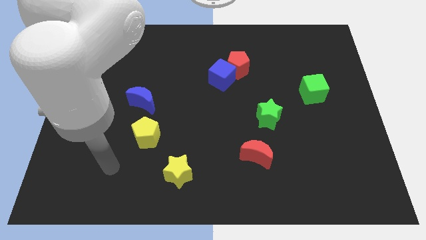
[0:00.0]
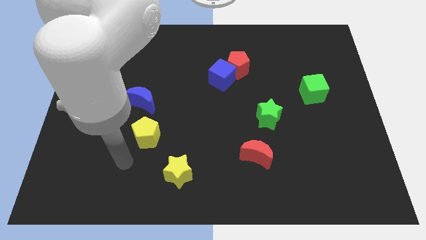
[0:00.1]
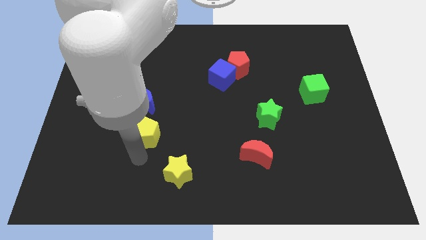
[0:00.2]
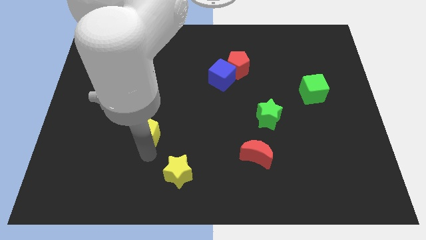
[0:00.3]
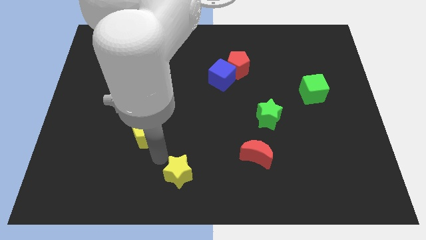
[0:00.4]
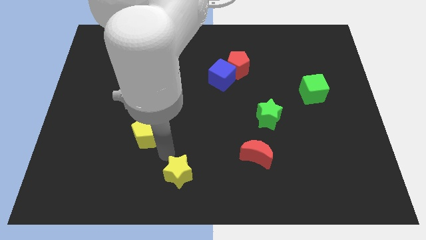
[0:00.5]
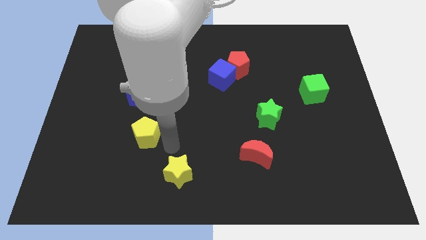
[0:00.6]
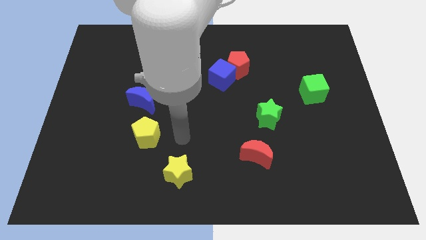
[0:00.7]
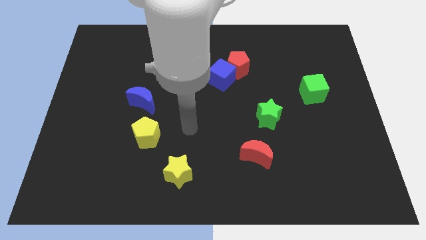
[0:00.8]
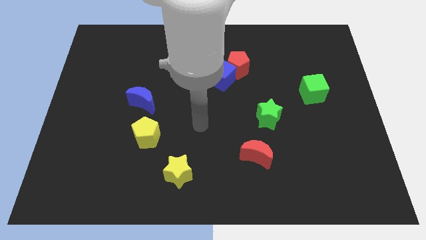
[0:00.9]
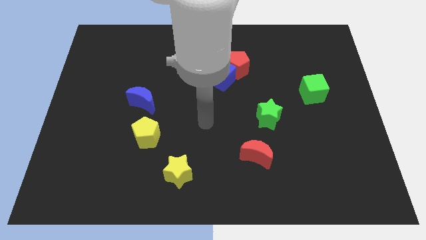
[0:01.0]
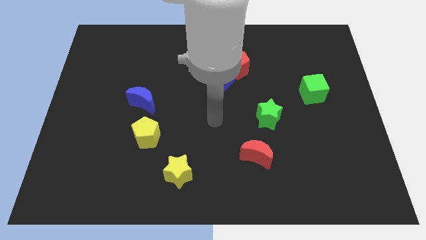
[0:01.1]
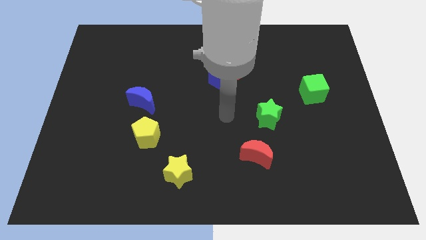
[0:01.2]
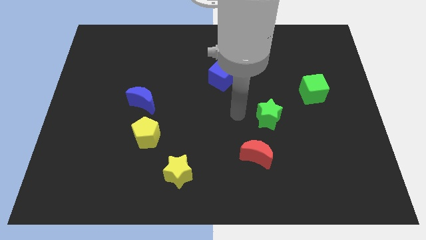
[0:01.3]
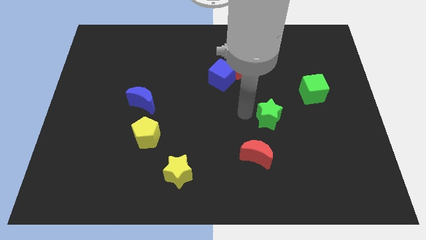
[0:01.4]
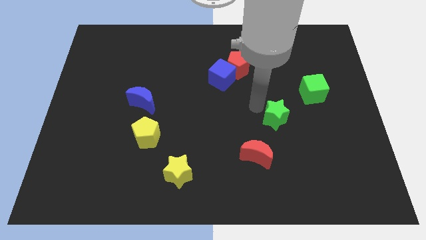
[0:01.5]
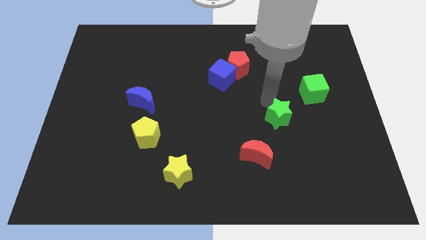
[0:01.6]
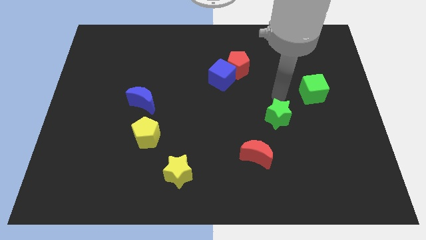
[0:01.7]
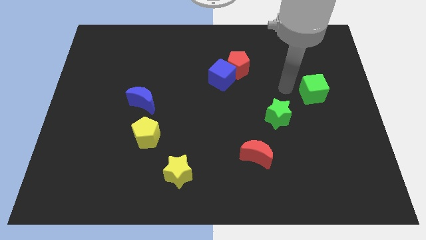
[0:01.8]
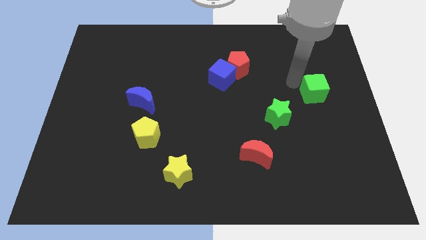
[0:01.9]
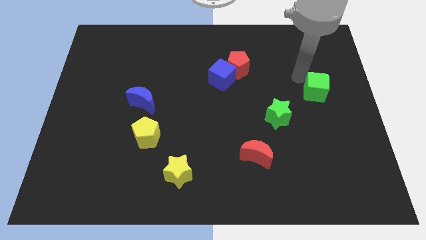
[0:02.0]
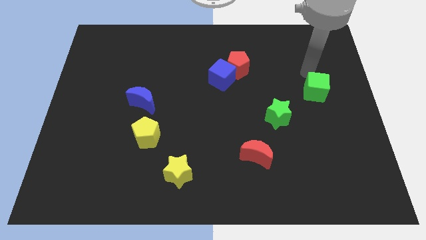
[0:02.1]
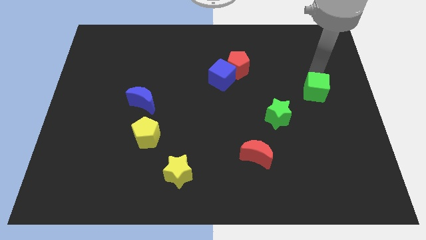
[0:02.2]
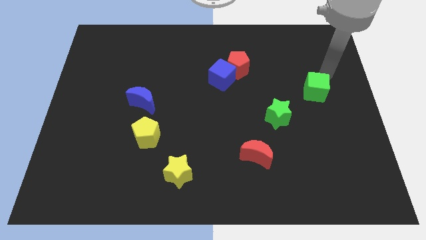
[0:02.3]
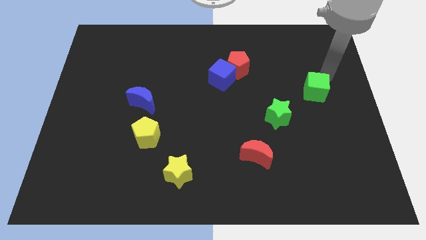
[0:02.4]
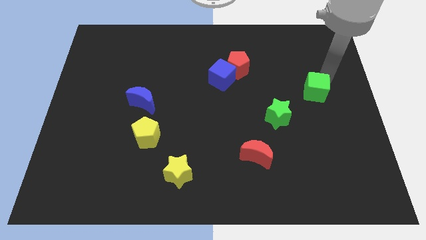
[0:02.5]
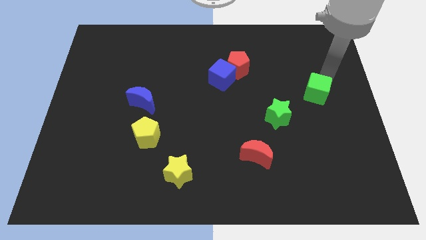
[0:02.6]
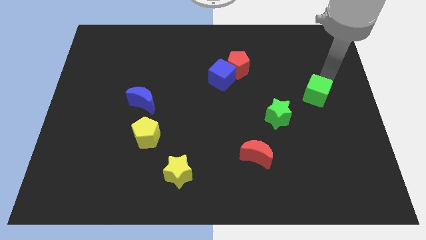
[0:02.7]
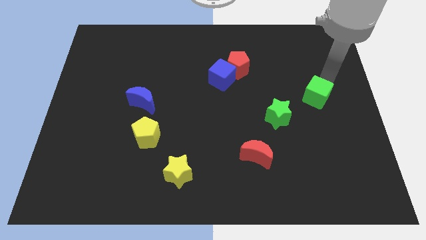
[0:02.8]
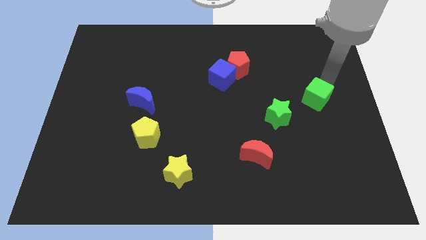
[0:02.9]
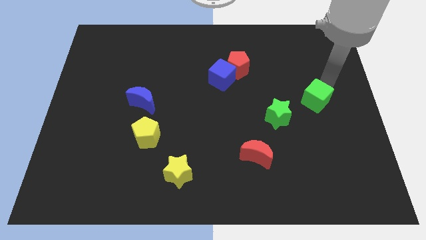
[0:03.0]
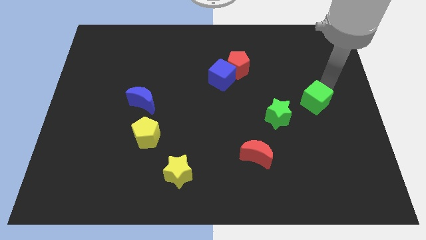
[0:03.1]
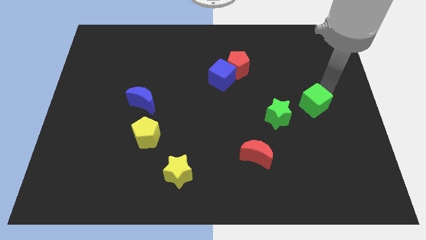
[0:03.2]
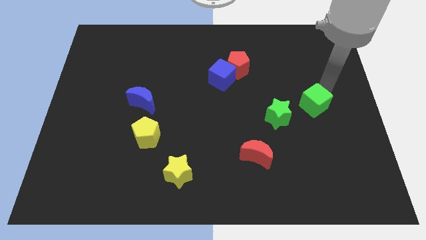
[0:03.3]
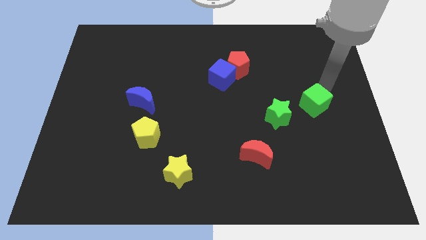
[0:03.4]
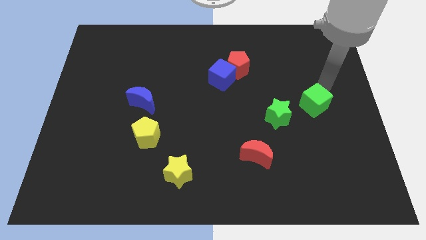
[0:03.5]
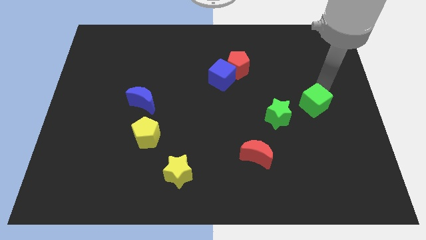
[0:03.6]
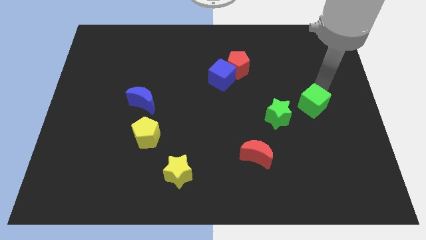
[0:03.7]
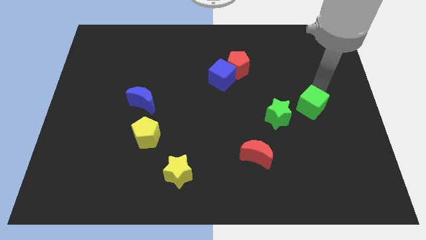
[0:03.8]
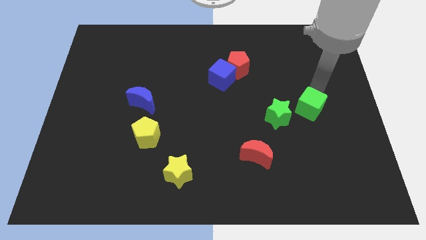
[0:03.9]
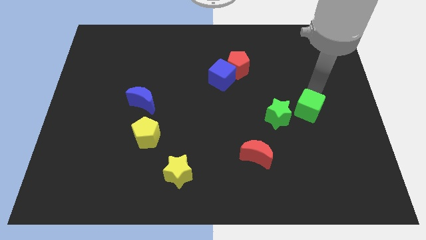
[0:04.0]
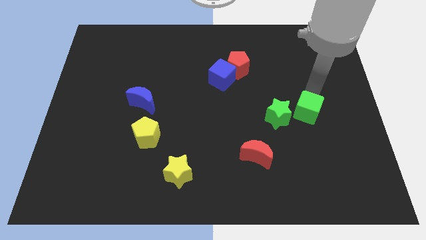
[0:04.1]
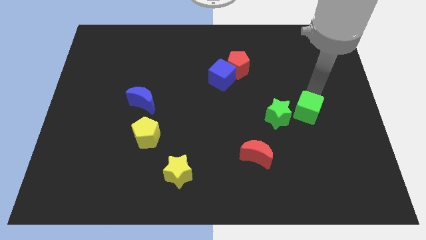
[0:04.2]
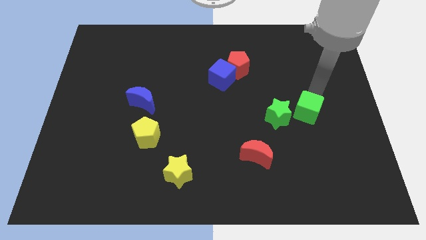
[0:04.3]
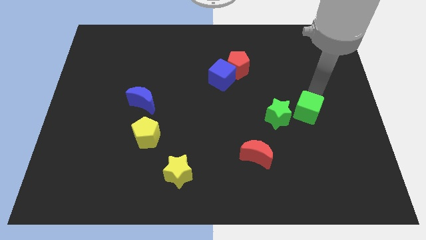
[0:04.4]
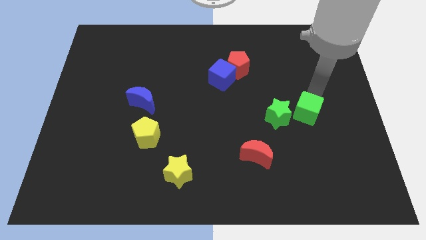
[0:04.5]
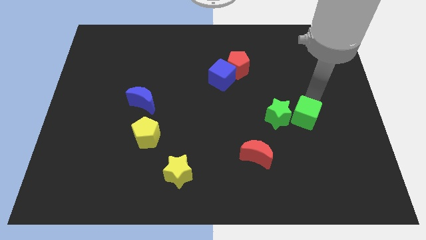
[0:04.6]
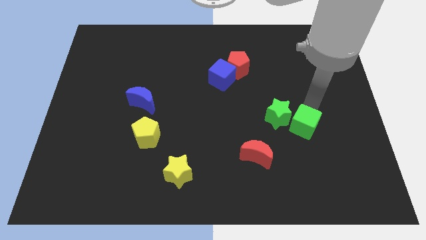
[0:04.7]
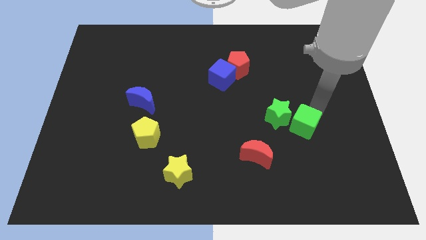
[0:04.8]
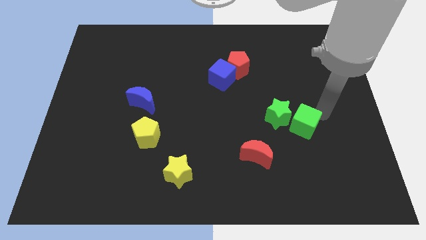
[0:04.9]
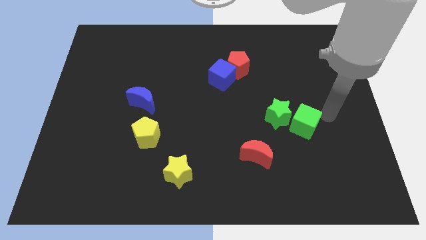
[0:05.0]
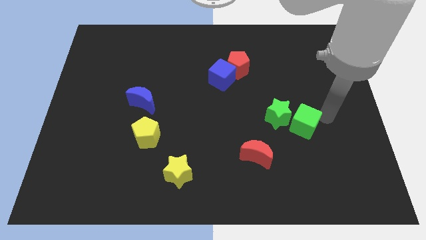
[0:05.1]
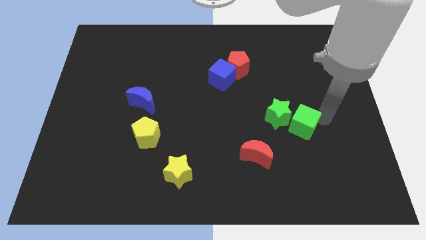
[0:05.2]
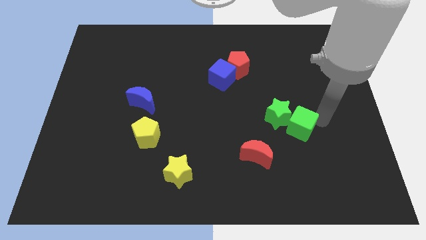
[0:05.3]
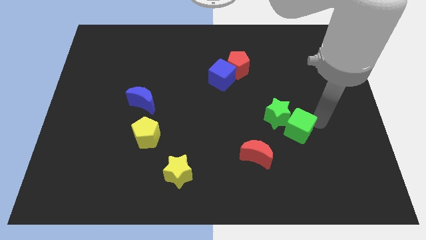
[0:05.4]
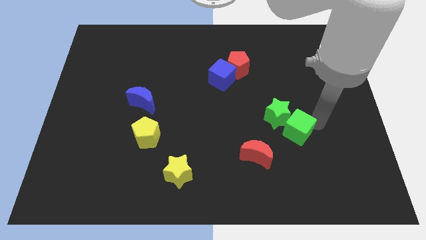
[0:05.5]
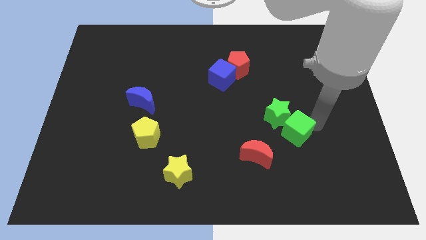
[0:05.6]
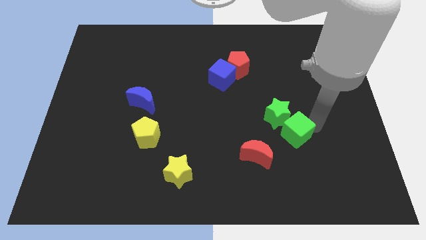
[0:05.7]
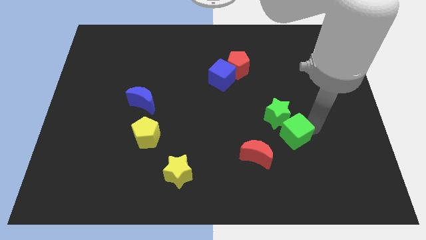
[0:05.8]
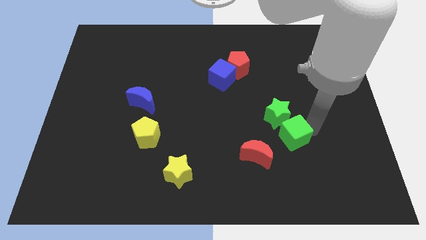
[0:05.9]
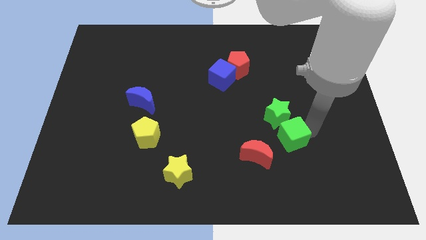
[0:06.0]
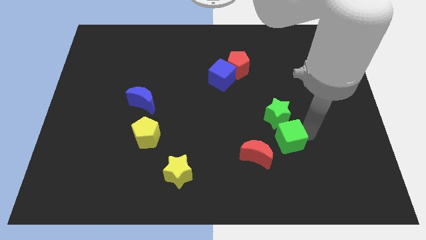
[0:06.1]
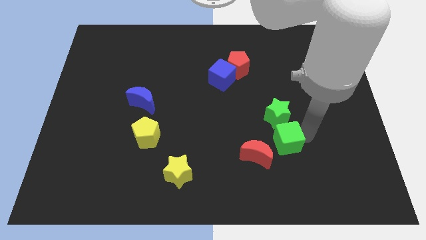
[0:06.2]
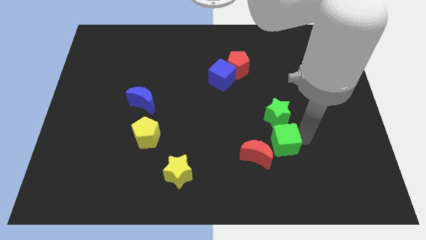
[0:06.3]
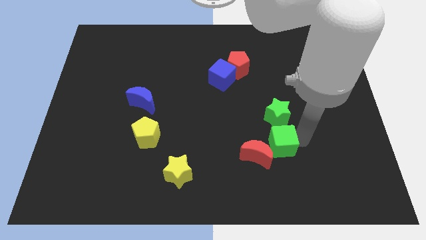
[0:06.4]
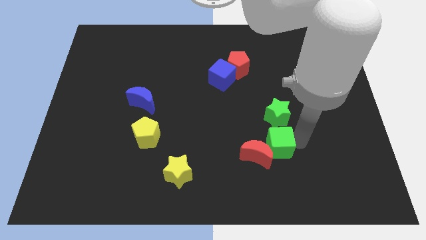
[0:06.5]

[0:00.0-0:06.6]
move the green cube to the bottom left of the green star
